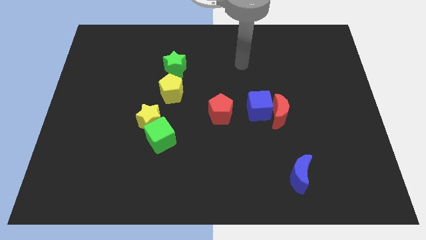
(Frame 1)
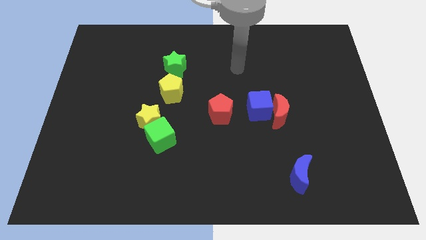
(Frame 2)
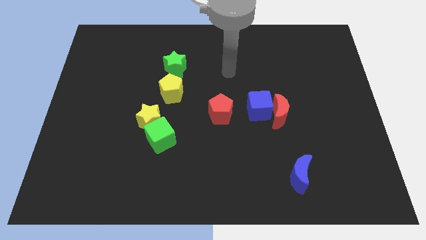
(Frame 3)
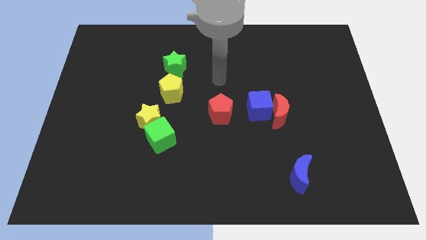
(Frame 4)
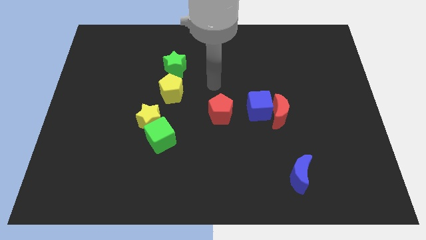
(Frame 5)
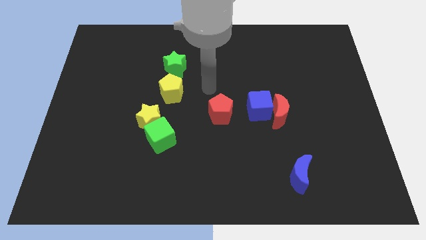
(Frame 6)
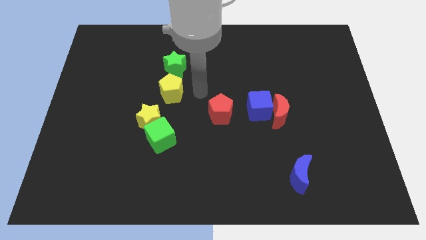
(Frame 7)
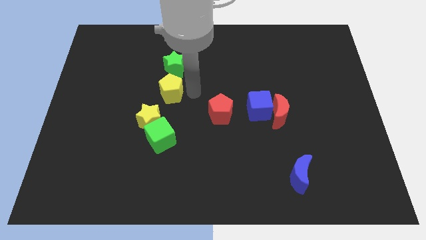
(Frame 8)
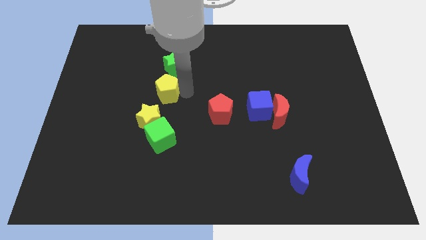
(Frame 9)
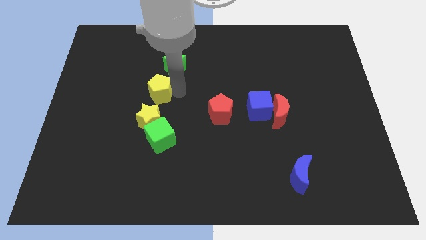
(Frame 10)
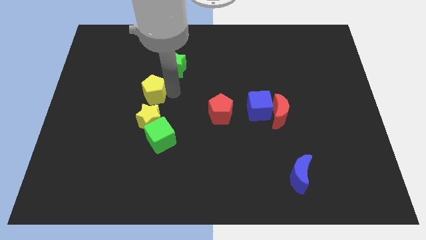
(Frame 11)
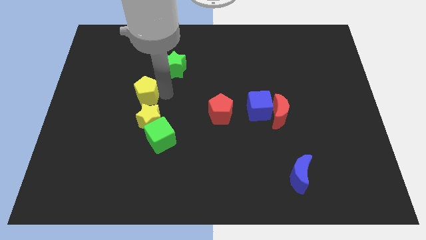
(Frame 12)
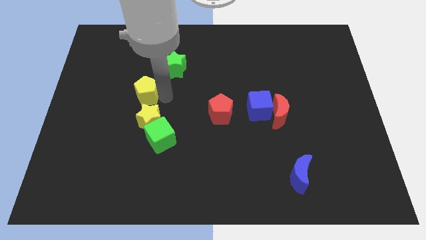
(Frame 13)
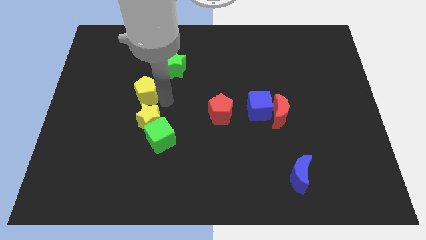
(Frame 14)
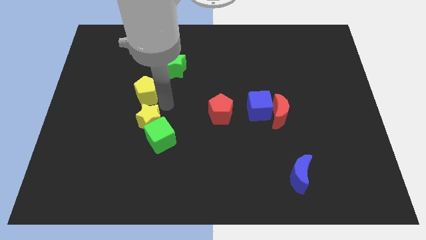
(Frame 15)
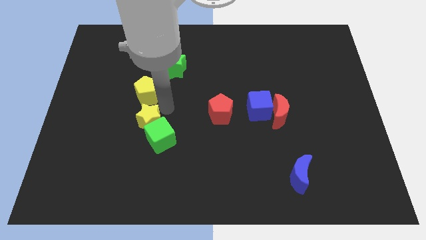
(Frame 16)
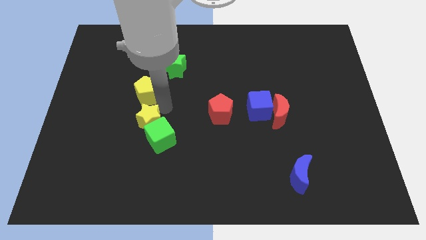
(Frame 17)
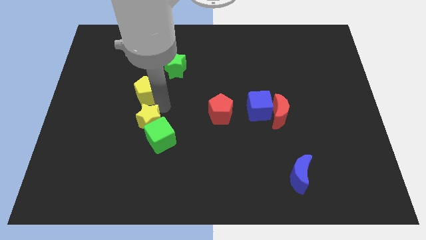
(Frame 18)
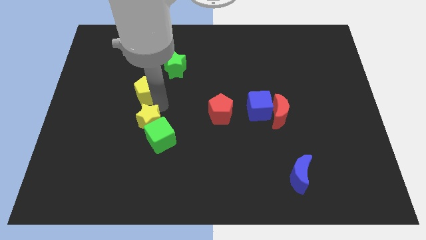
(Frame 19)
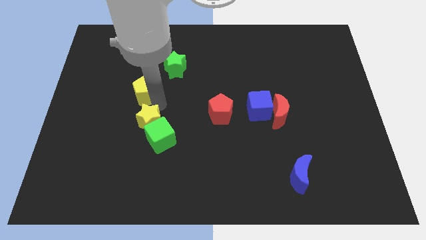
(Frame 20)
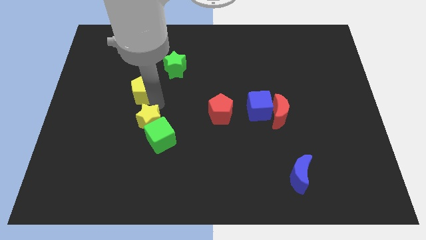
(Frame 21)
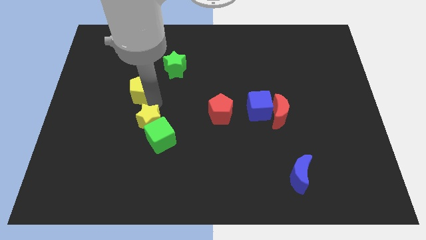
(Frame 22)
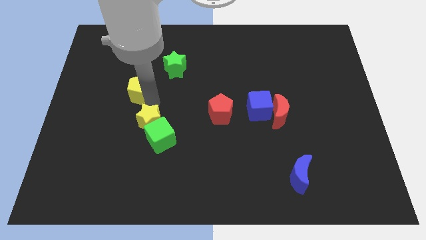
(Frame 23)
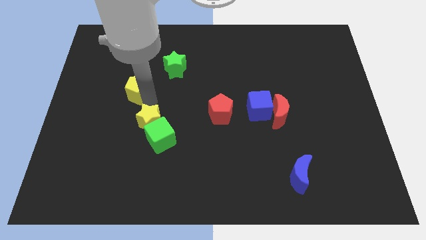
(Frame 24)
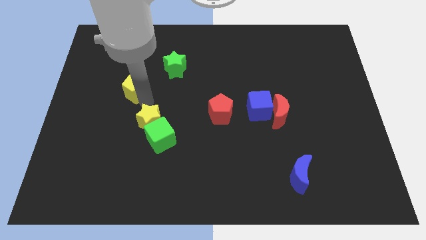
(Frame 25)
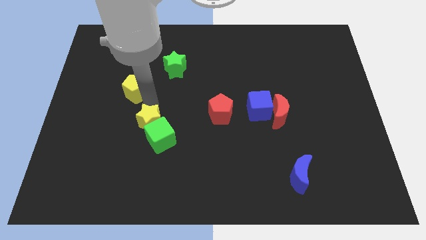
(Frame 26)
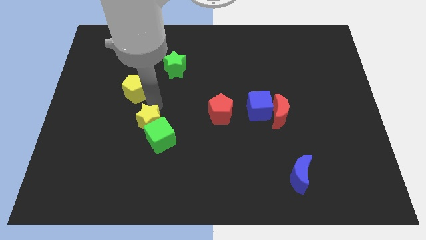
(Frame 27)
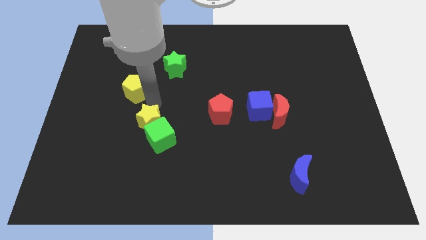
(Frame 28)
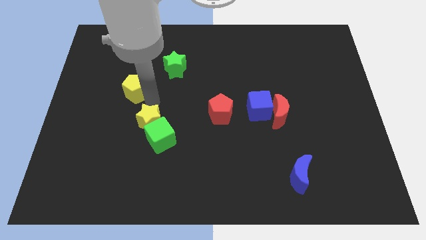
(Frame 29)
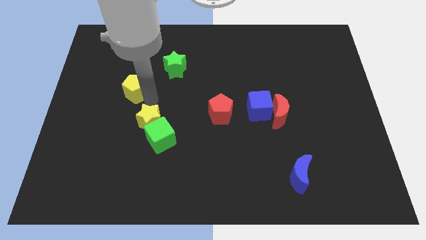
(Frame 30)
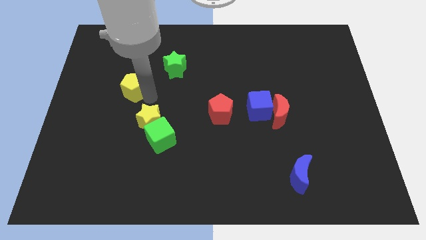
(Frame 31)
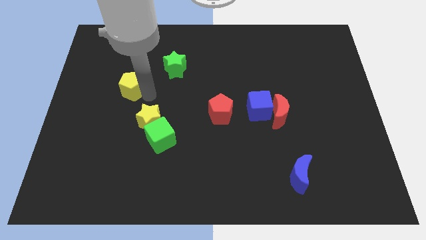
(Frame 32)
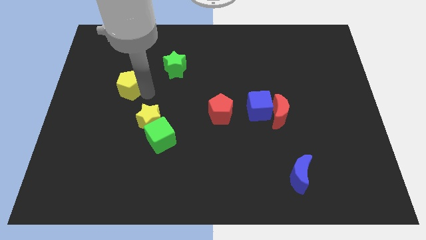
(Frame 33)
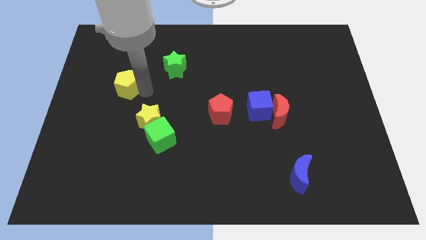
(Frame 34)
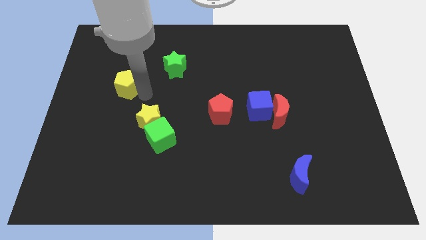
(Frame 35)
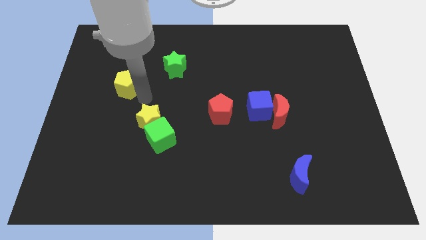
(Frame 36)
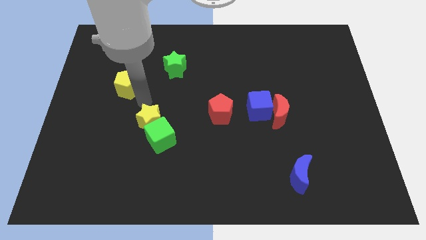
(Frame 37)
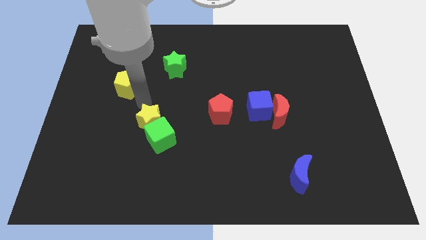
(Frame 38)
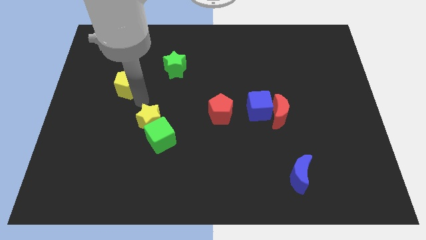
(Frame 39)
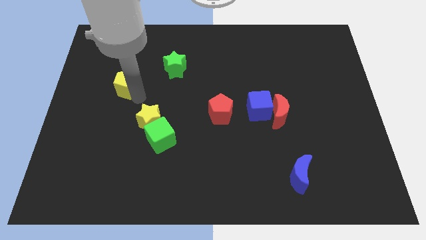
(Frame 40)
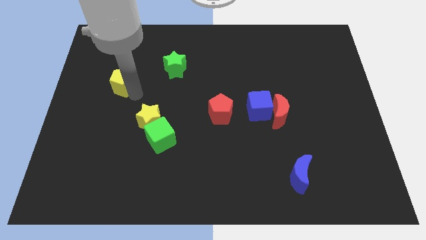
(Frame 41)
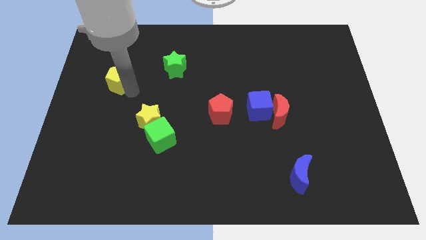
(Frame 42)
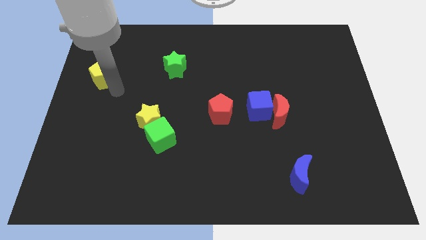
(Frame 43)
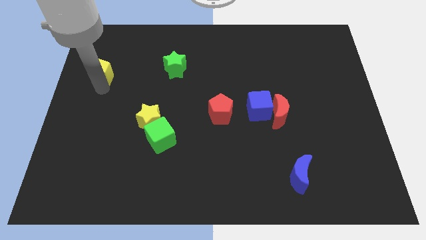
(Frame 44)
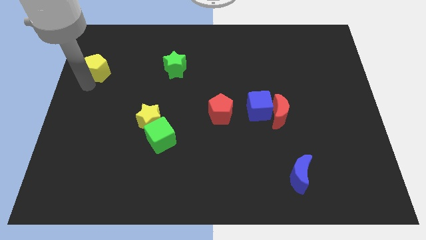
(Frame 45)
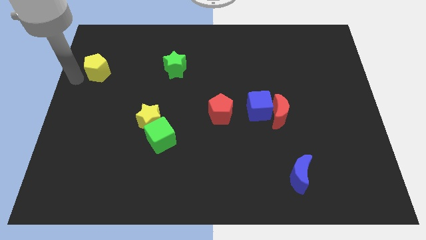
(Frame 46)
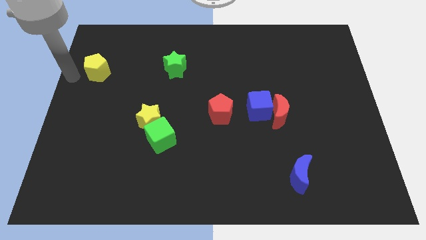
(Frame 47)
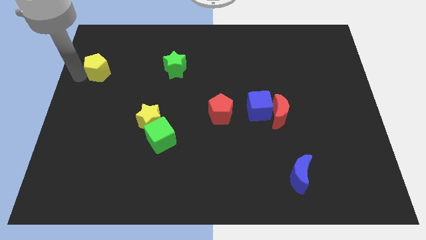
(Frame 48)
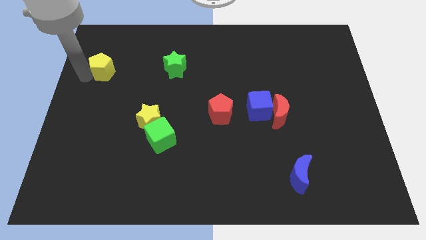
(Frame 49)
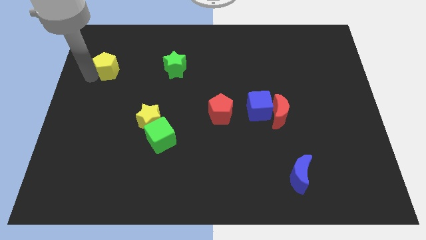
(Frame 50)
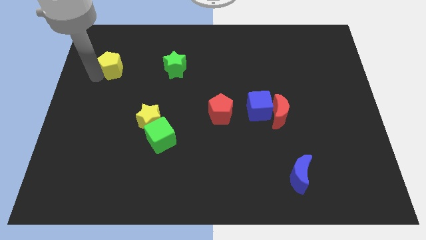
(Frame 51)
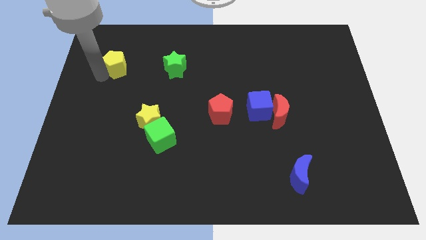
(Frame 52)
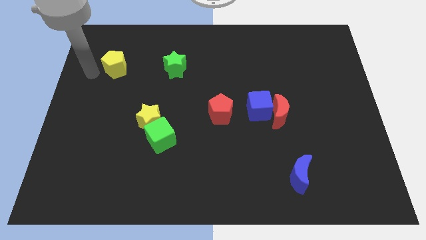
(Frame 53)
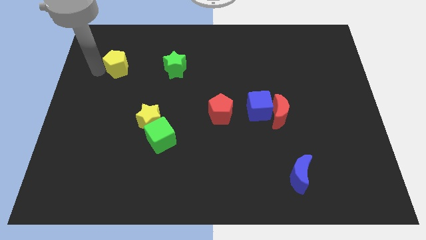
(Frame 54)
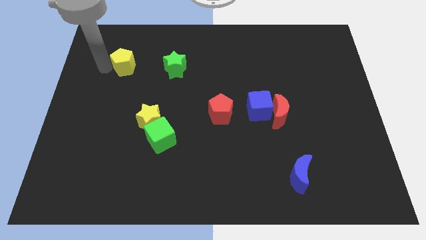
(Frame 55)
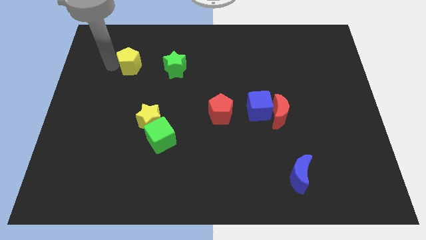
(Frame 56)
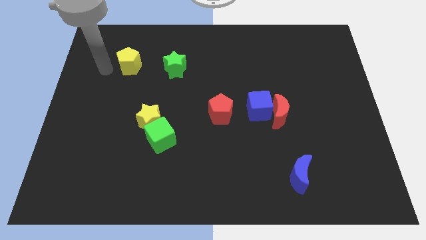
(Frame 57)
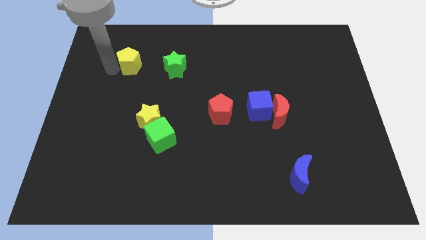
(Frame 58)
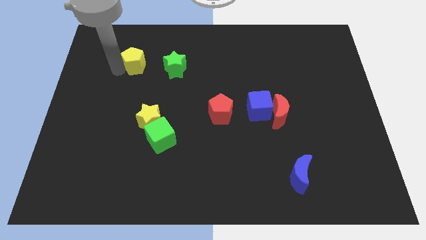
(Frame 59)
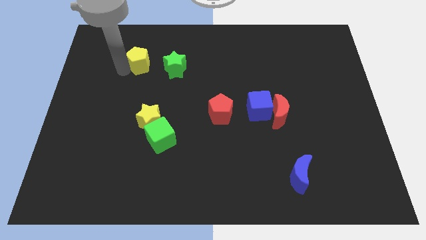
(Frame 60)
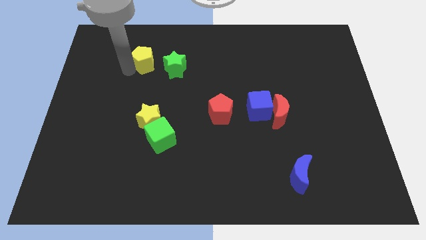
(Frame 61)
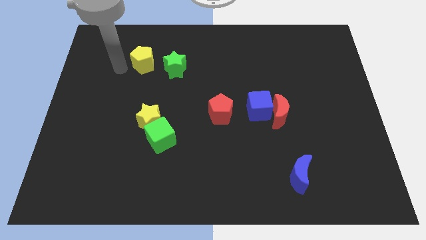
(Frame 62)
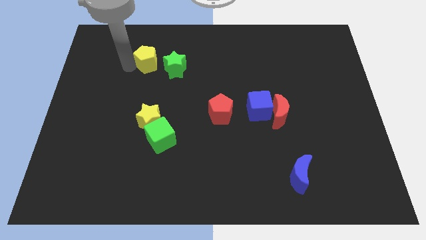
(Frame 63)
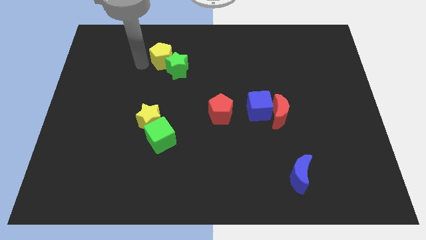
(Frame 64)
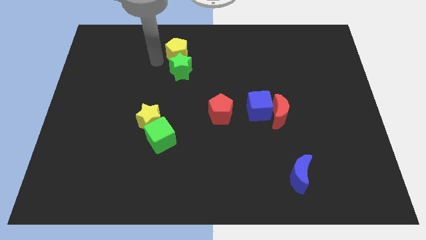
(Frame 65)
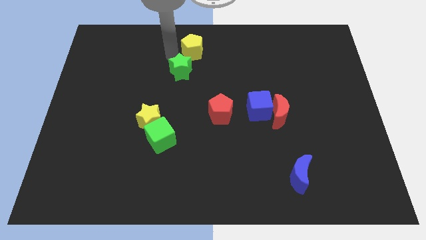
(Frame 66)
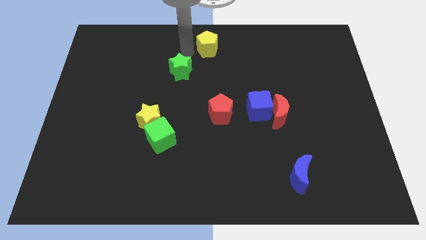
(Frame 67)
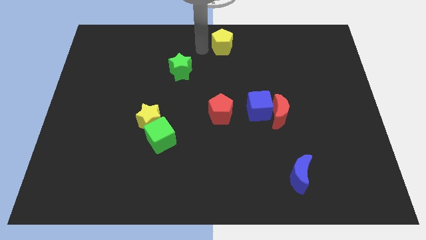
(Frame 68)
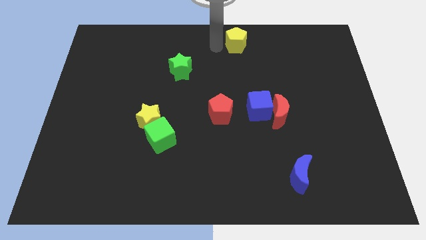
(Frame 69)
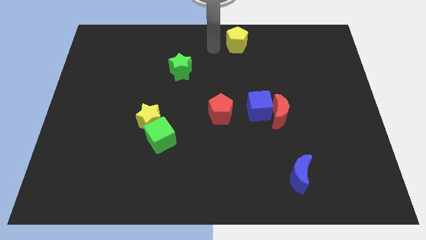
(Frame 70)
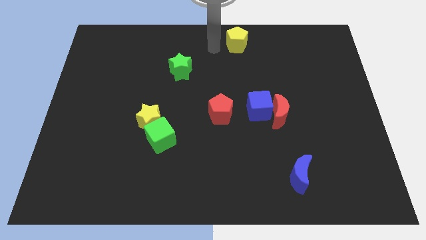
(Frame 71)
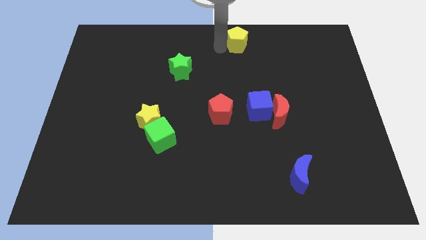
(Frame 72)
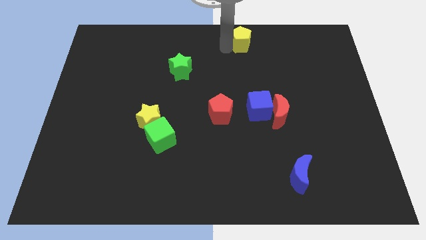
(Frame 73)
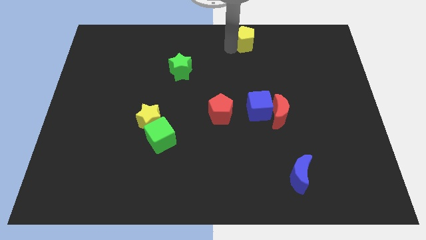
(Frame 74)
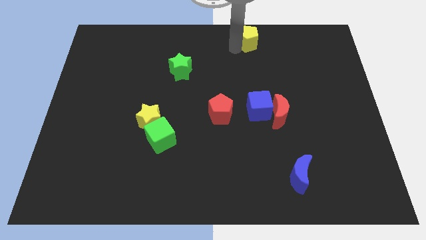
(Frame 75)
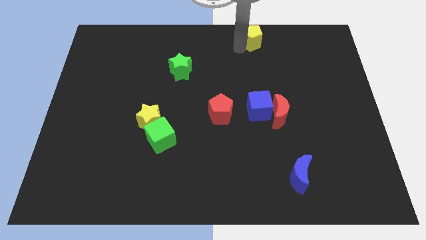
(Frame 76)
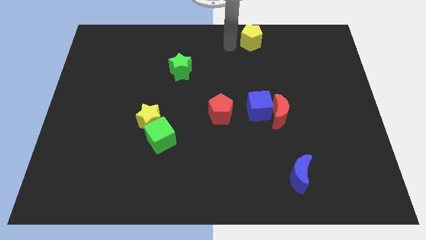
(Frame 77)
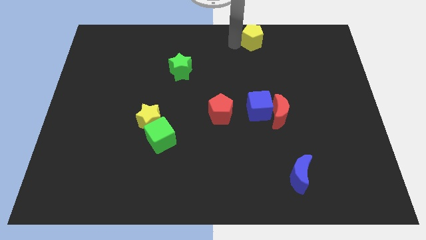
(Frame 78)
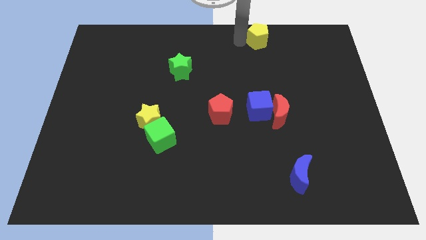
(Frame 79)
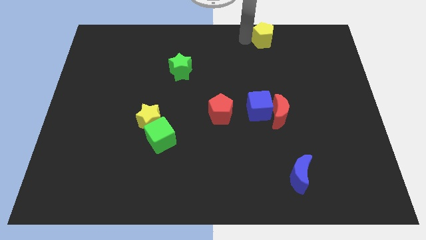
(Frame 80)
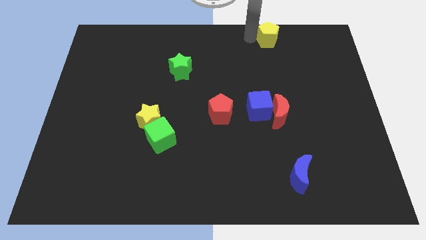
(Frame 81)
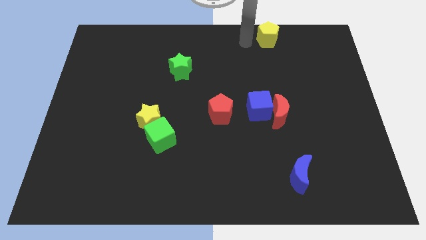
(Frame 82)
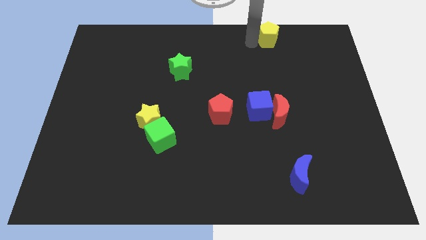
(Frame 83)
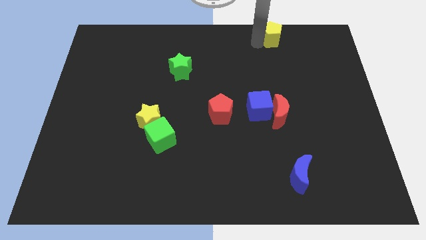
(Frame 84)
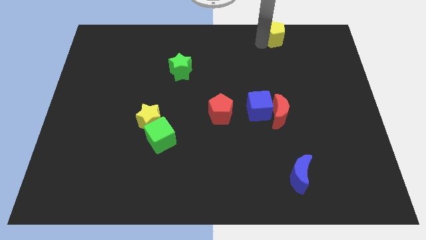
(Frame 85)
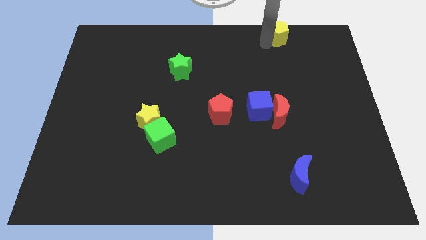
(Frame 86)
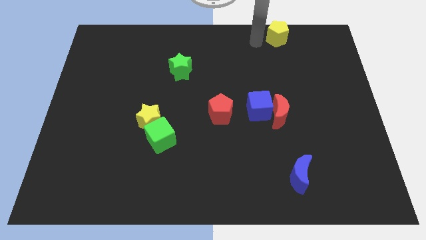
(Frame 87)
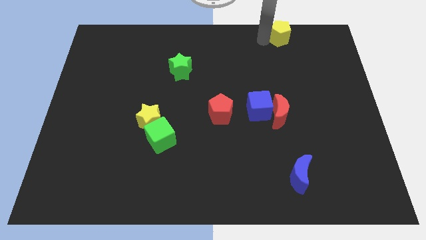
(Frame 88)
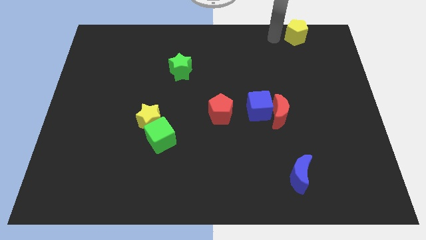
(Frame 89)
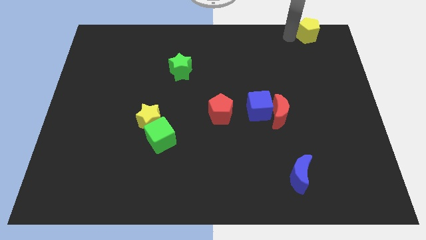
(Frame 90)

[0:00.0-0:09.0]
slide the yellow pentagon to the top right corner
